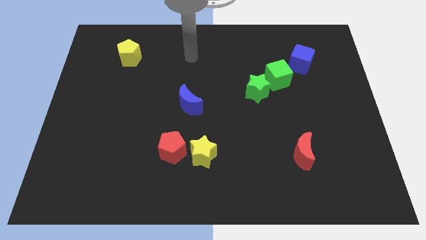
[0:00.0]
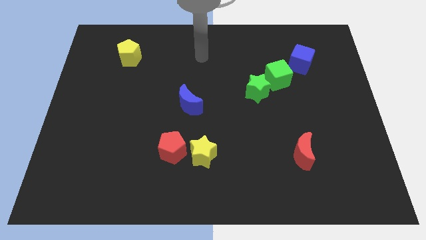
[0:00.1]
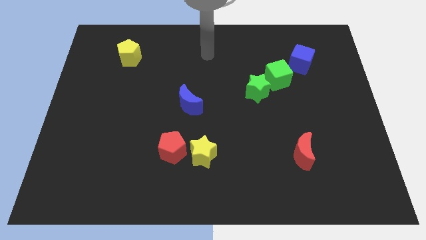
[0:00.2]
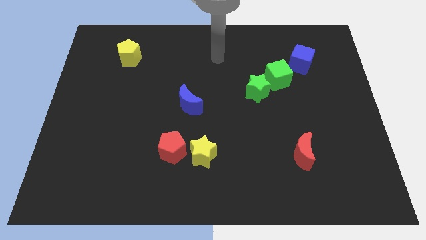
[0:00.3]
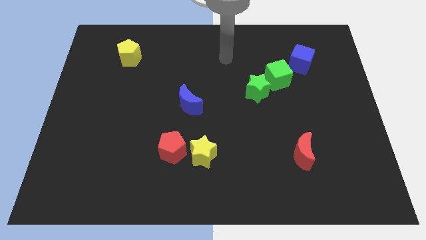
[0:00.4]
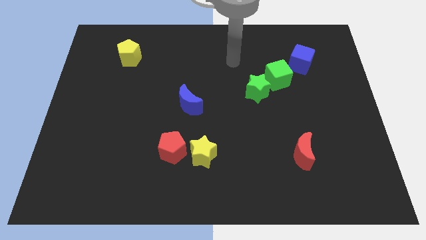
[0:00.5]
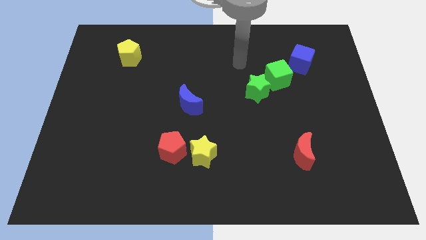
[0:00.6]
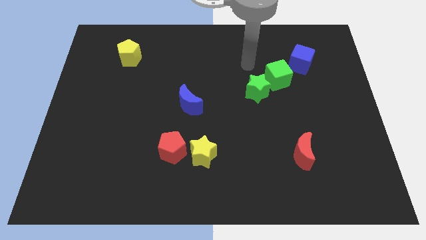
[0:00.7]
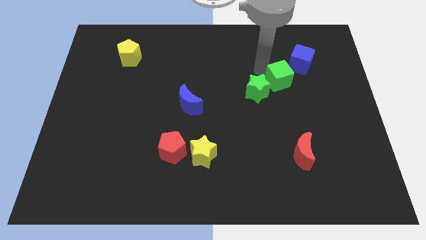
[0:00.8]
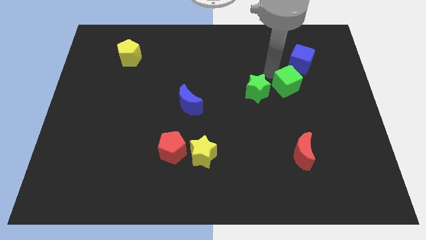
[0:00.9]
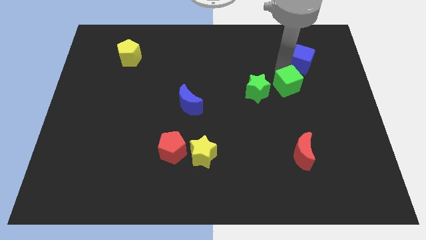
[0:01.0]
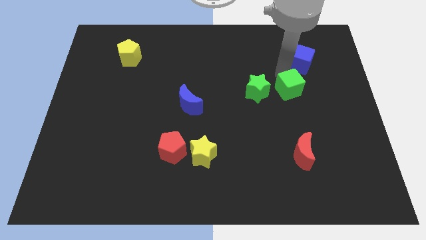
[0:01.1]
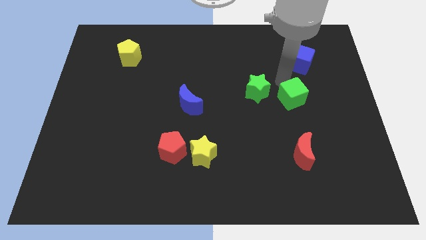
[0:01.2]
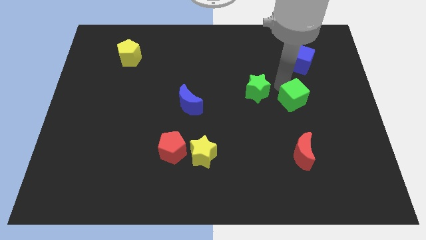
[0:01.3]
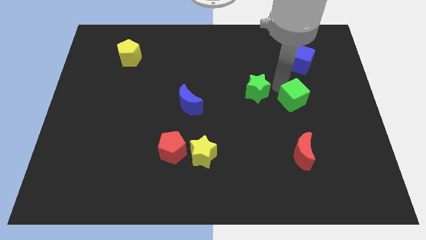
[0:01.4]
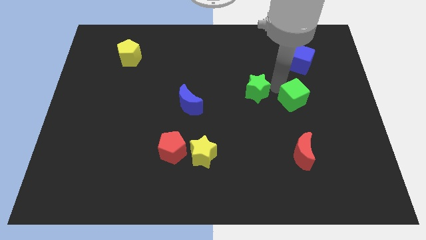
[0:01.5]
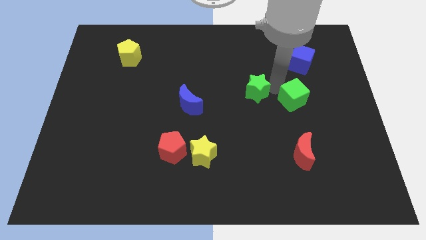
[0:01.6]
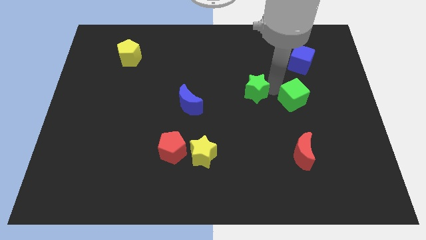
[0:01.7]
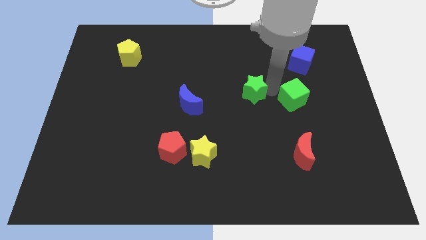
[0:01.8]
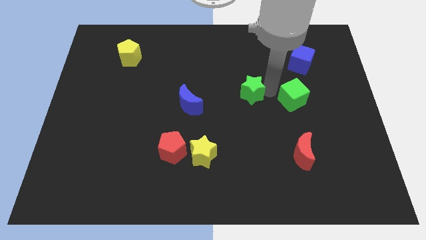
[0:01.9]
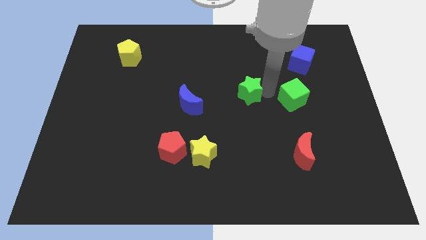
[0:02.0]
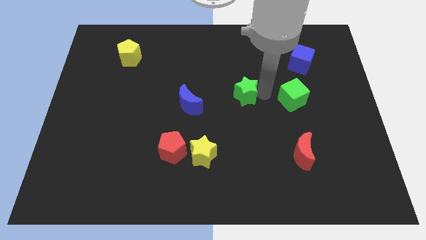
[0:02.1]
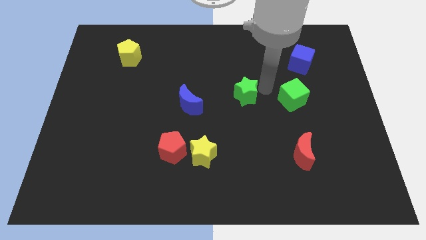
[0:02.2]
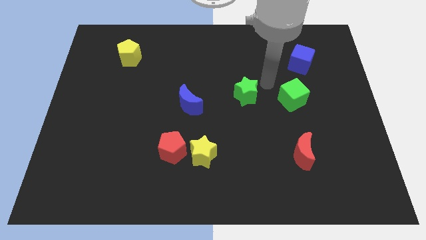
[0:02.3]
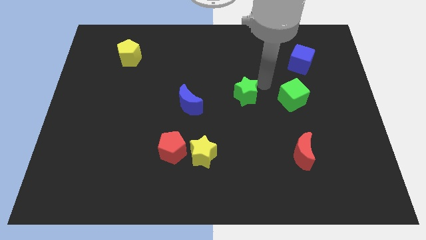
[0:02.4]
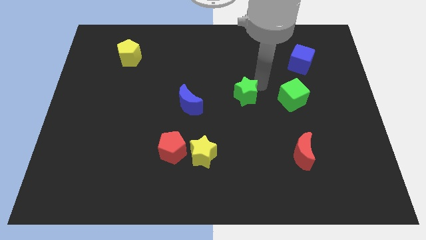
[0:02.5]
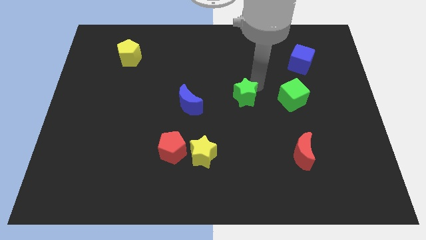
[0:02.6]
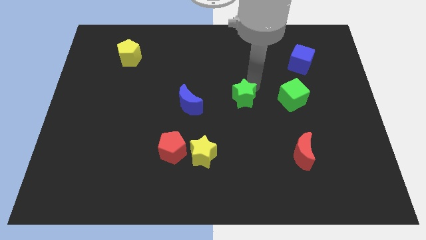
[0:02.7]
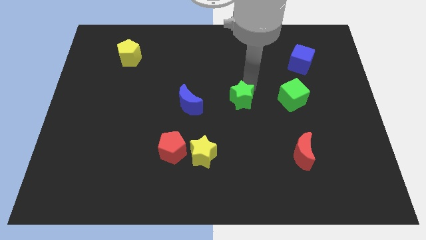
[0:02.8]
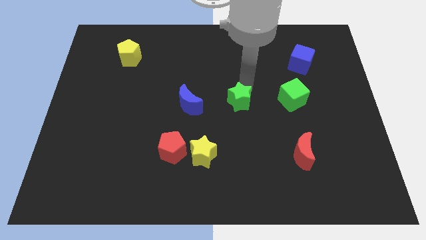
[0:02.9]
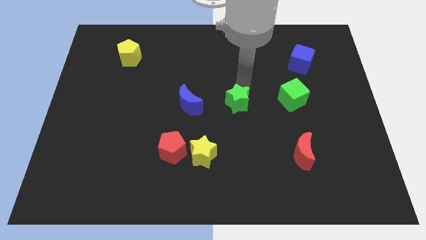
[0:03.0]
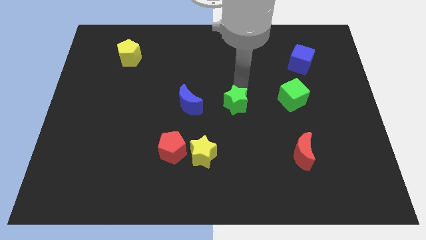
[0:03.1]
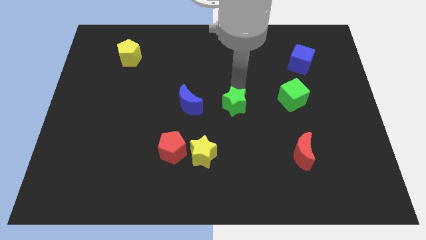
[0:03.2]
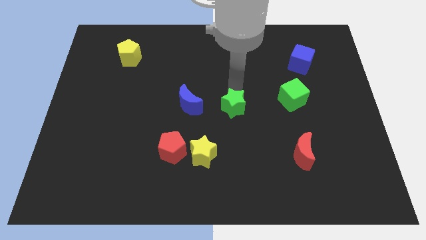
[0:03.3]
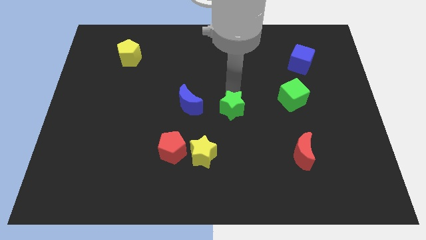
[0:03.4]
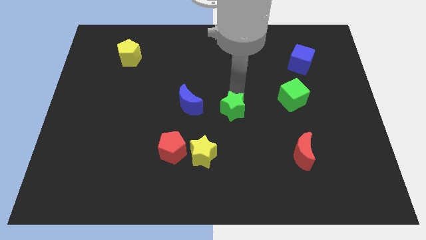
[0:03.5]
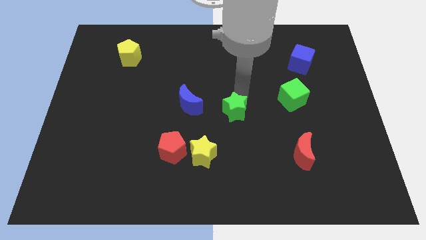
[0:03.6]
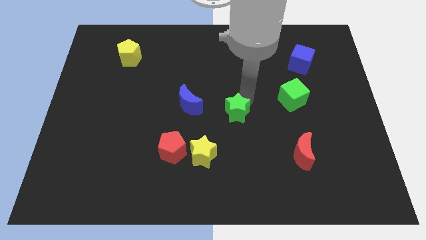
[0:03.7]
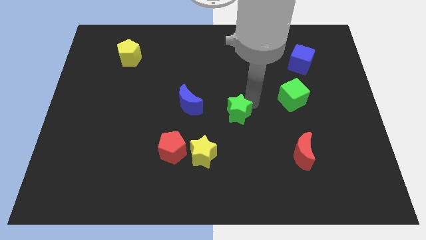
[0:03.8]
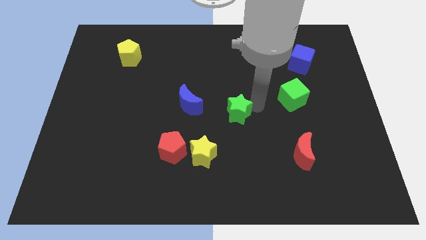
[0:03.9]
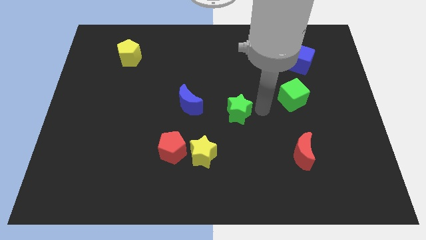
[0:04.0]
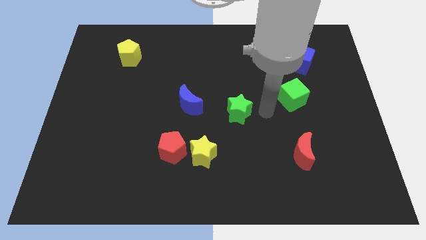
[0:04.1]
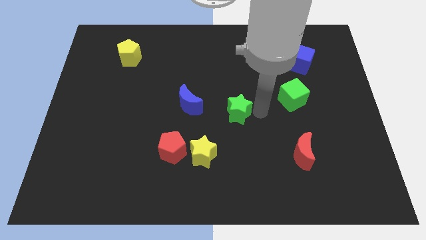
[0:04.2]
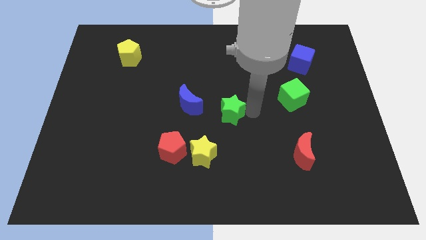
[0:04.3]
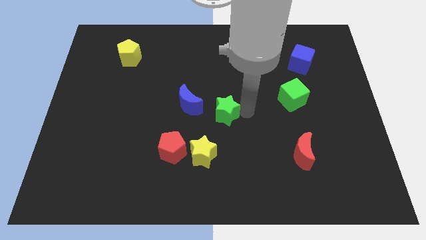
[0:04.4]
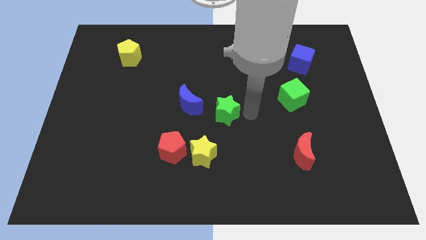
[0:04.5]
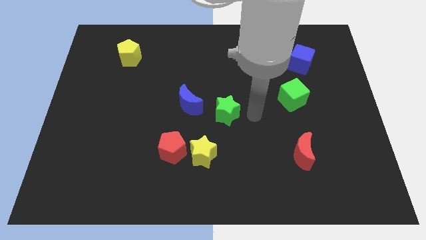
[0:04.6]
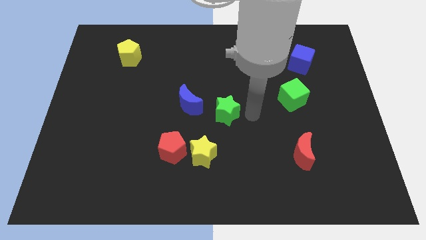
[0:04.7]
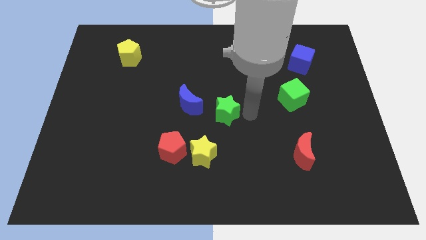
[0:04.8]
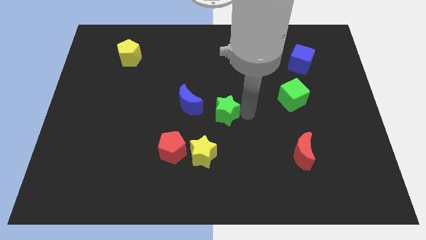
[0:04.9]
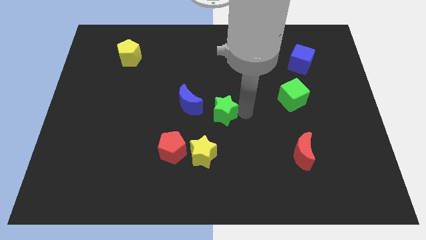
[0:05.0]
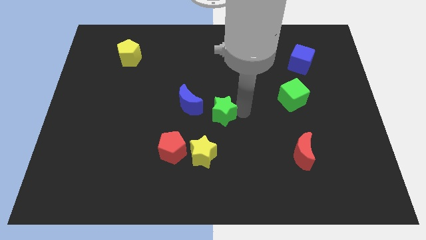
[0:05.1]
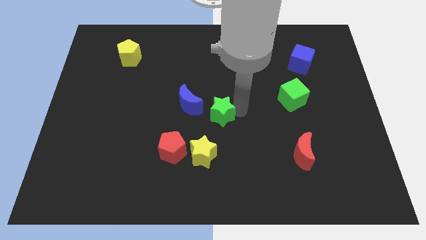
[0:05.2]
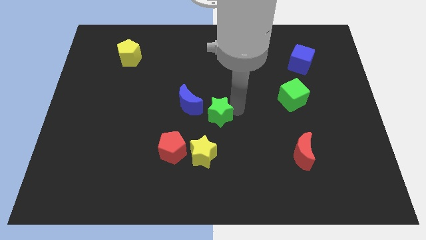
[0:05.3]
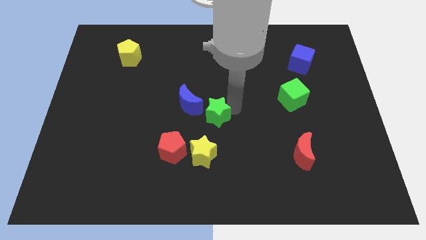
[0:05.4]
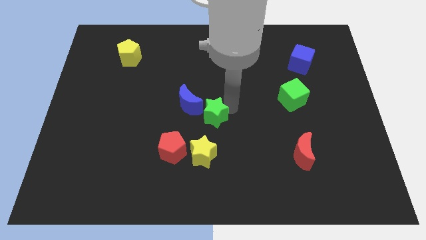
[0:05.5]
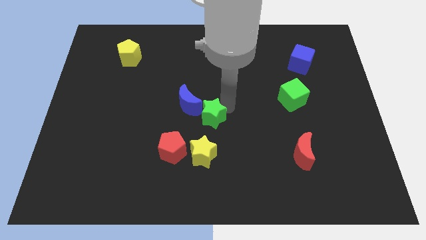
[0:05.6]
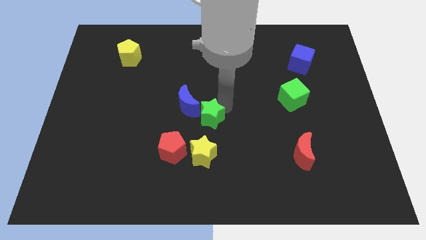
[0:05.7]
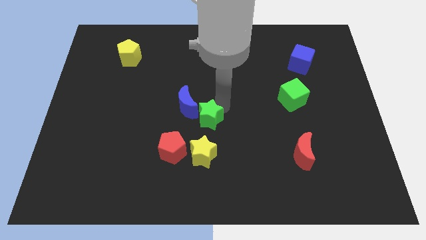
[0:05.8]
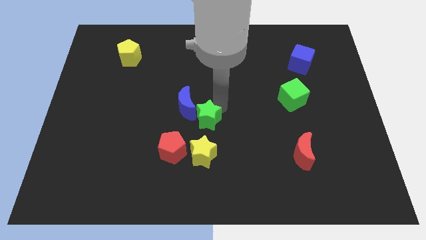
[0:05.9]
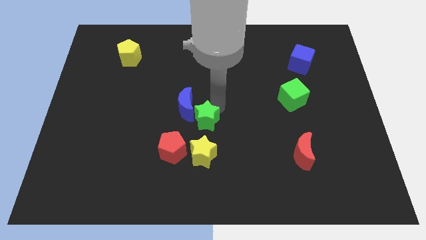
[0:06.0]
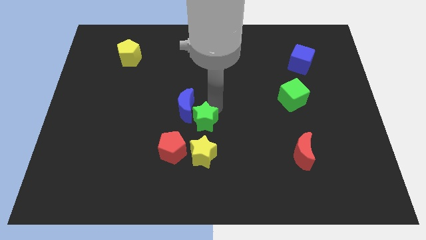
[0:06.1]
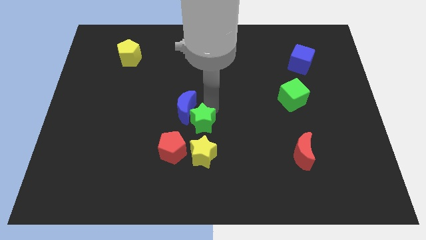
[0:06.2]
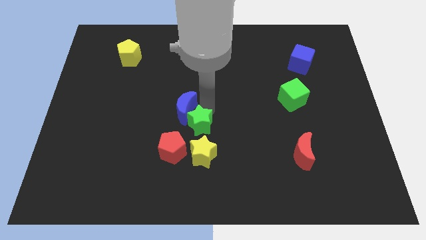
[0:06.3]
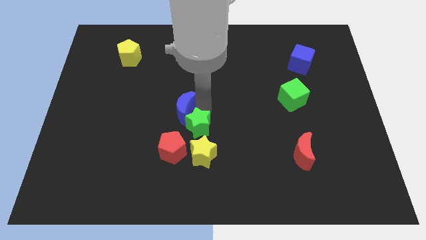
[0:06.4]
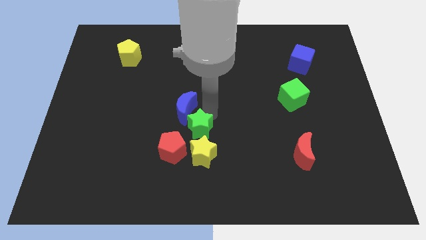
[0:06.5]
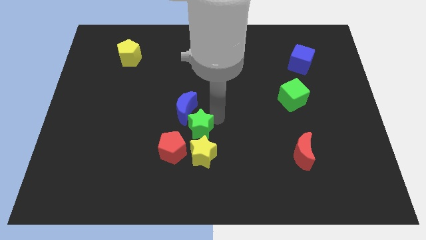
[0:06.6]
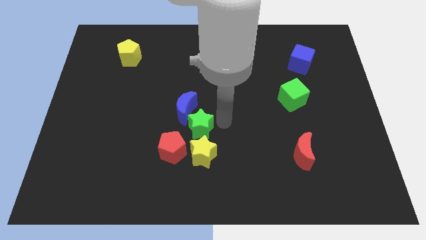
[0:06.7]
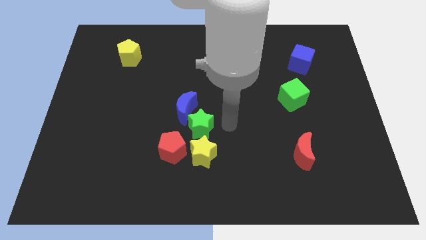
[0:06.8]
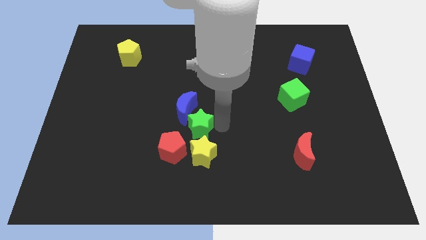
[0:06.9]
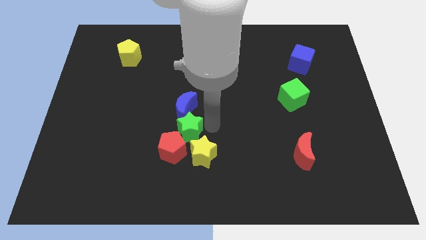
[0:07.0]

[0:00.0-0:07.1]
push the green star to the bottom left of the blue moon
